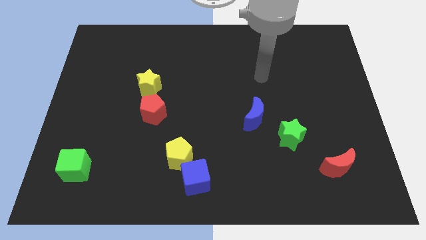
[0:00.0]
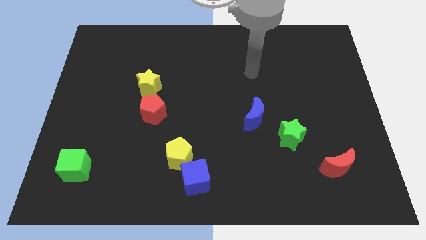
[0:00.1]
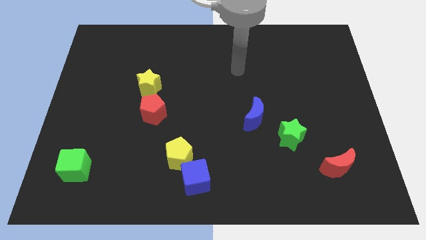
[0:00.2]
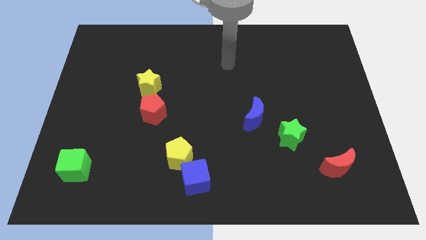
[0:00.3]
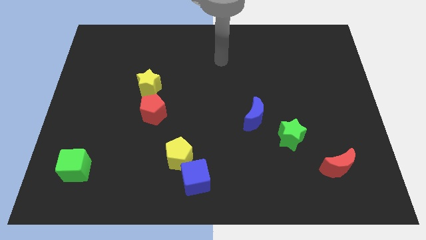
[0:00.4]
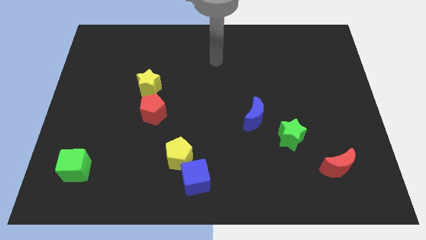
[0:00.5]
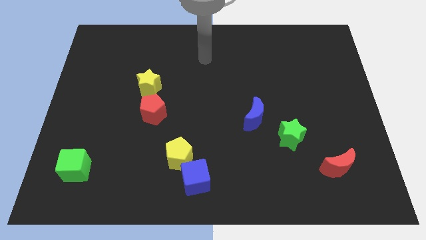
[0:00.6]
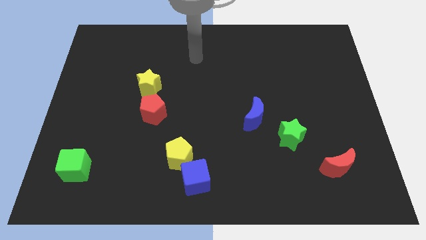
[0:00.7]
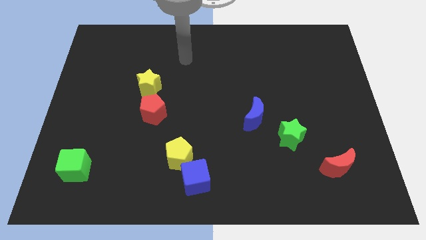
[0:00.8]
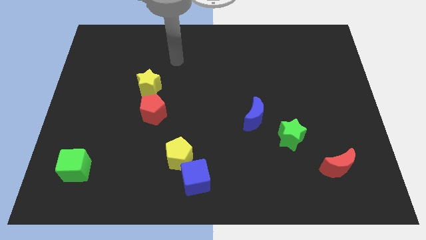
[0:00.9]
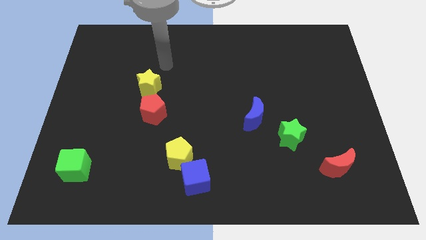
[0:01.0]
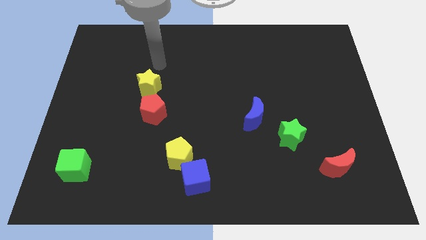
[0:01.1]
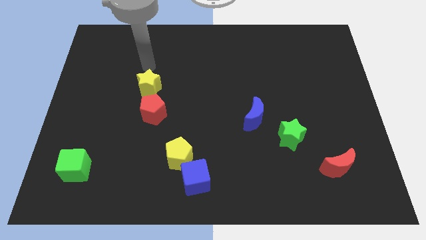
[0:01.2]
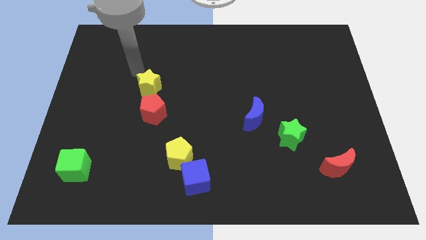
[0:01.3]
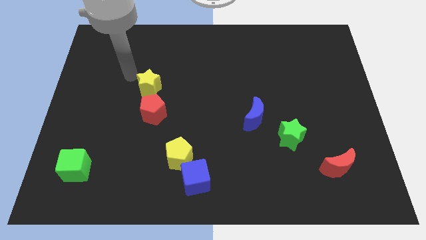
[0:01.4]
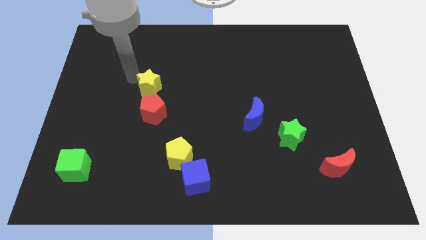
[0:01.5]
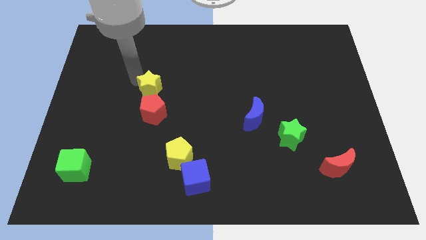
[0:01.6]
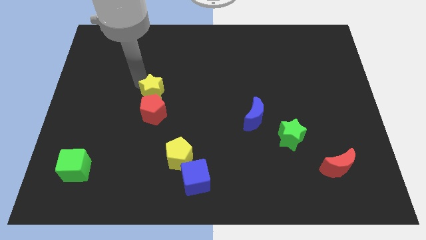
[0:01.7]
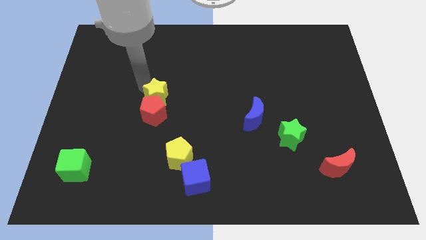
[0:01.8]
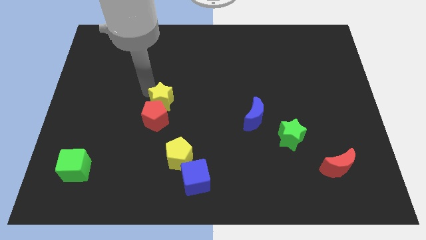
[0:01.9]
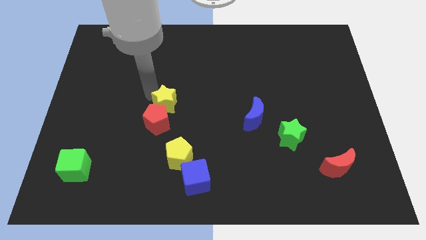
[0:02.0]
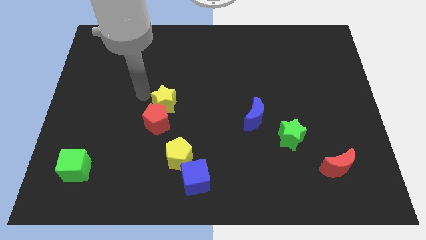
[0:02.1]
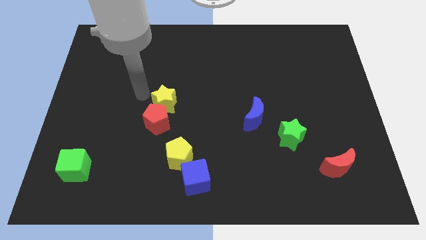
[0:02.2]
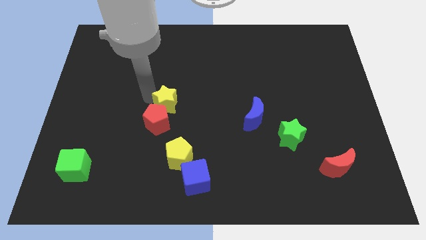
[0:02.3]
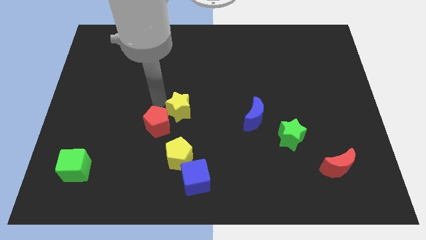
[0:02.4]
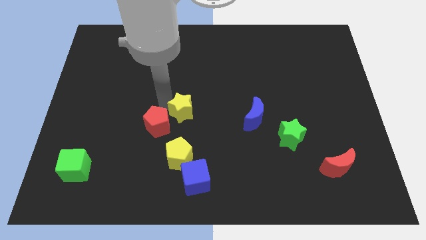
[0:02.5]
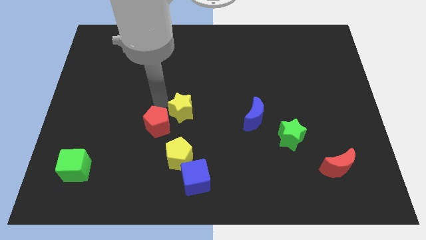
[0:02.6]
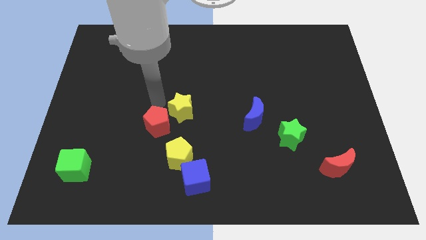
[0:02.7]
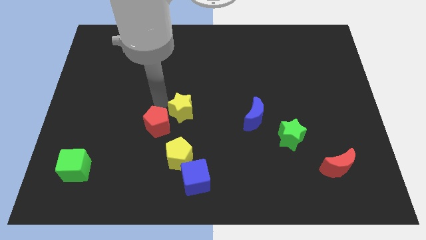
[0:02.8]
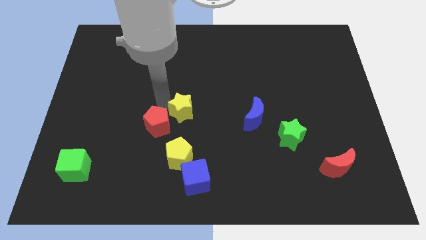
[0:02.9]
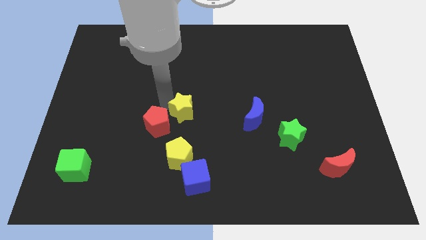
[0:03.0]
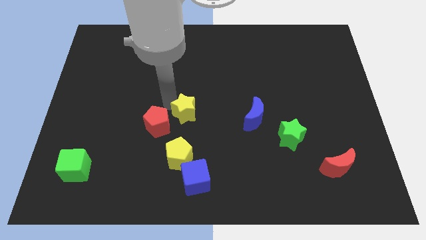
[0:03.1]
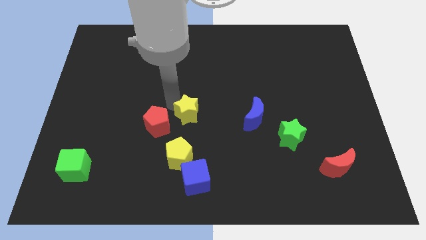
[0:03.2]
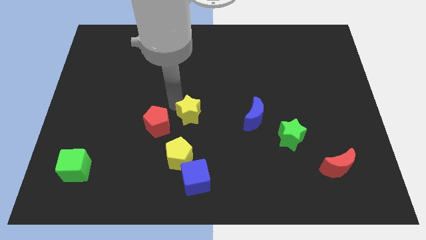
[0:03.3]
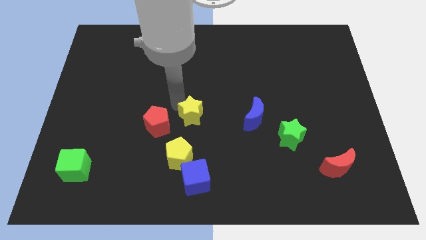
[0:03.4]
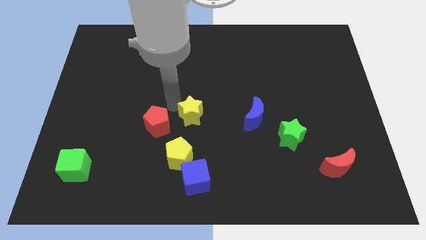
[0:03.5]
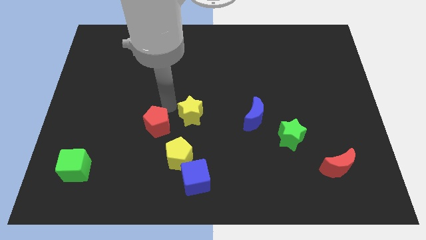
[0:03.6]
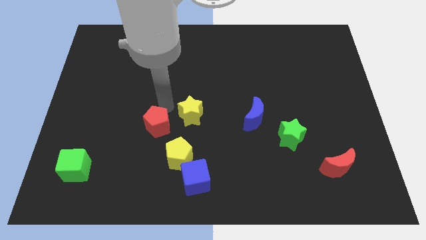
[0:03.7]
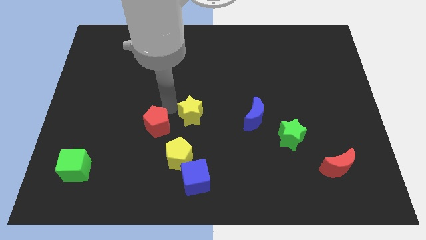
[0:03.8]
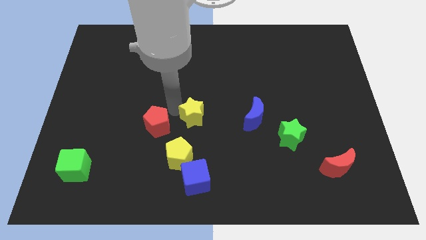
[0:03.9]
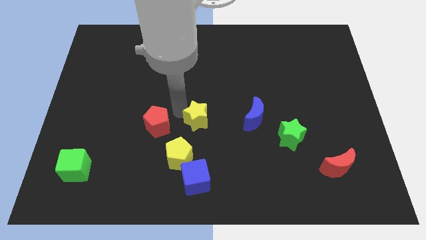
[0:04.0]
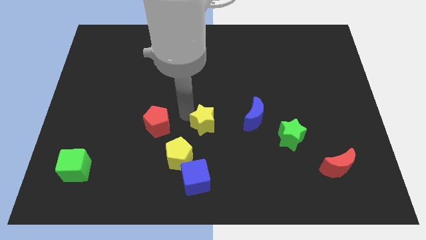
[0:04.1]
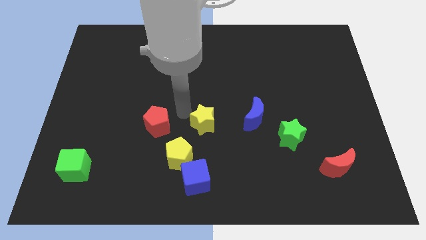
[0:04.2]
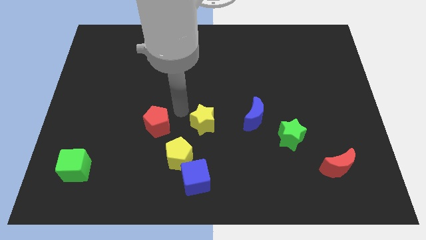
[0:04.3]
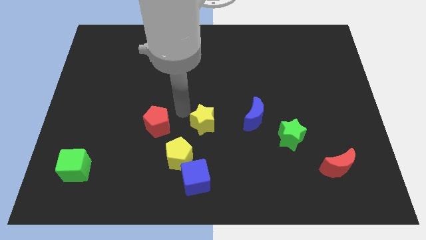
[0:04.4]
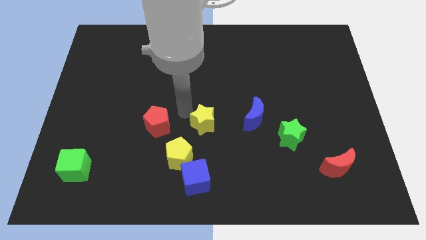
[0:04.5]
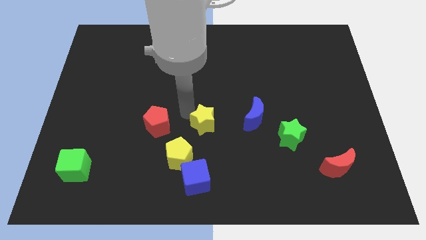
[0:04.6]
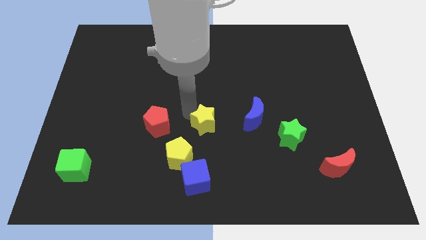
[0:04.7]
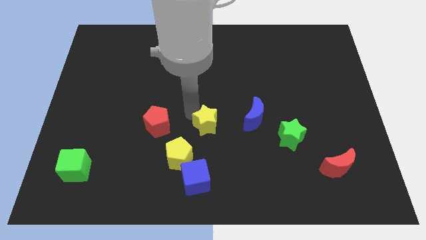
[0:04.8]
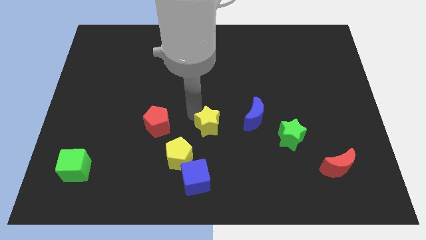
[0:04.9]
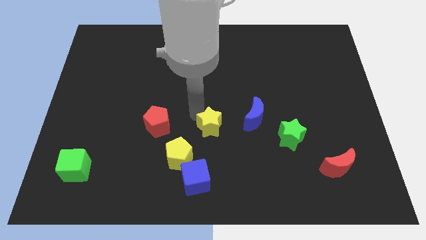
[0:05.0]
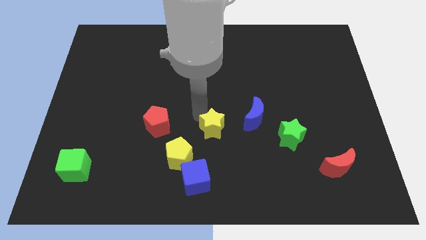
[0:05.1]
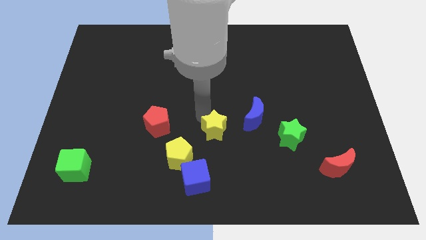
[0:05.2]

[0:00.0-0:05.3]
push the yellow star diagonally downwards and to the right

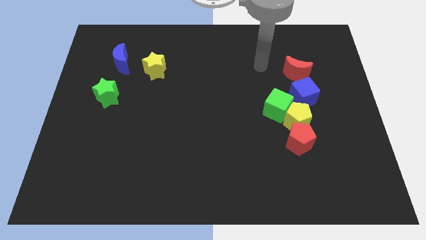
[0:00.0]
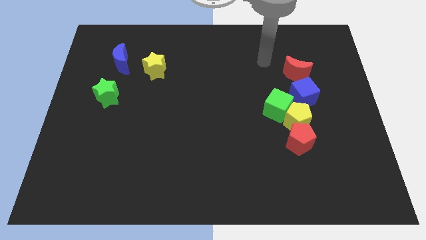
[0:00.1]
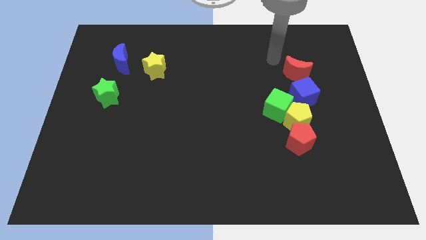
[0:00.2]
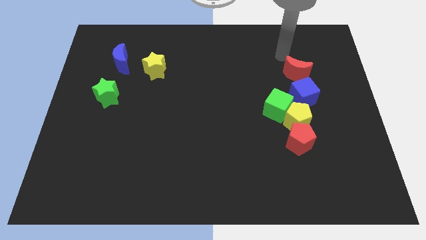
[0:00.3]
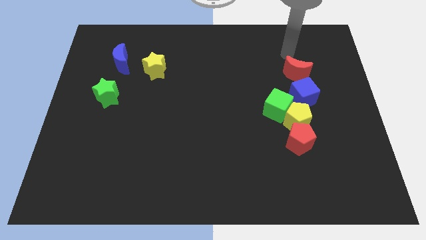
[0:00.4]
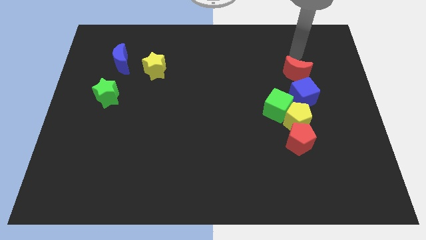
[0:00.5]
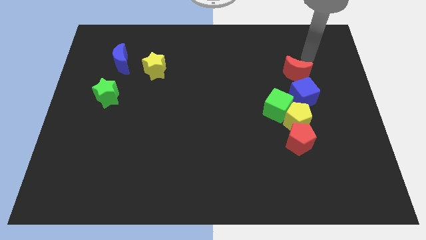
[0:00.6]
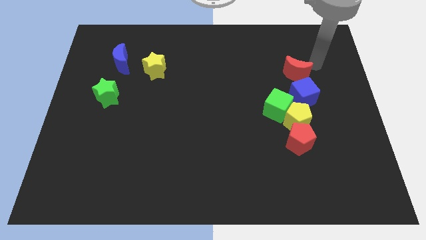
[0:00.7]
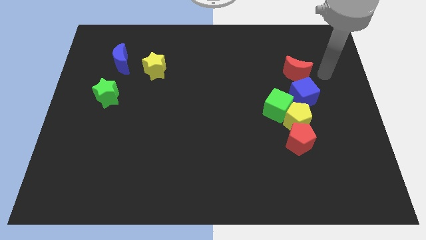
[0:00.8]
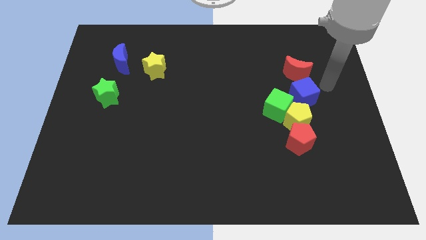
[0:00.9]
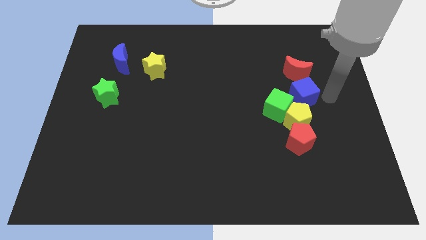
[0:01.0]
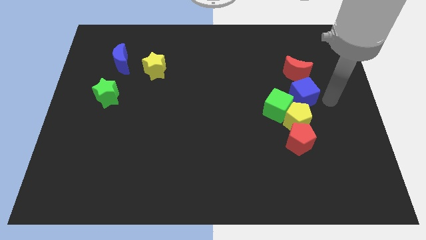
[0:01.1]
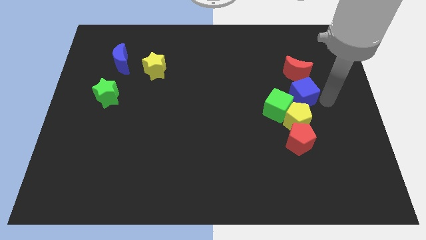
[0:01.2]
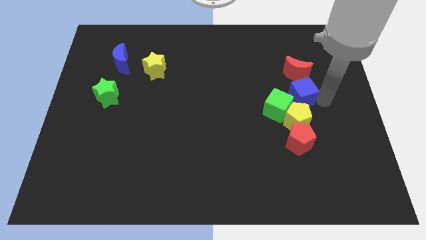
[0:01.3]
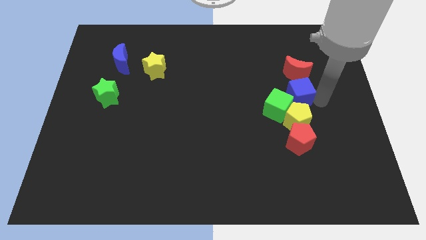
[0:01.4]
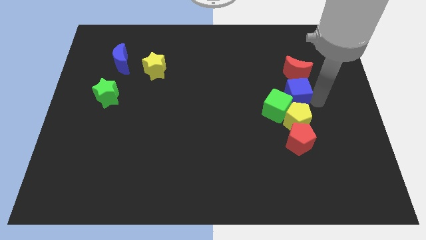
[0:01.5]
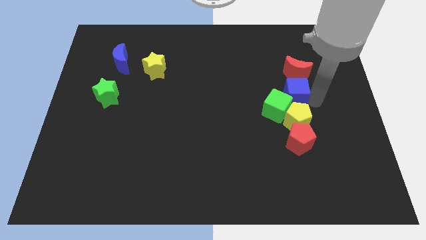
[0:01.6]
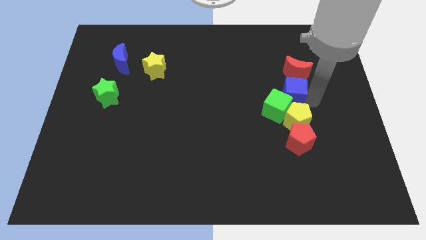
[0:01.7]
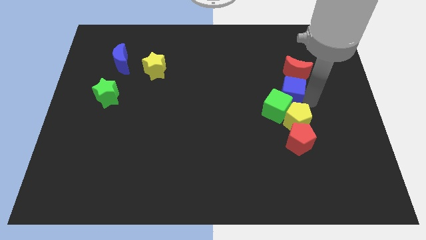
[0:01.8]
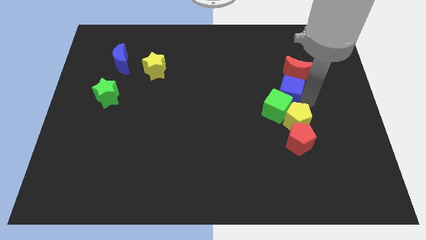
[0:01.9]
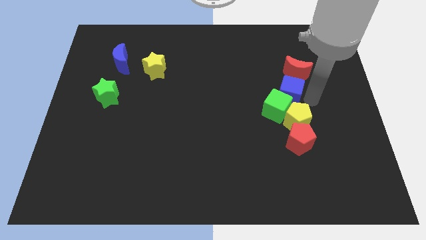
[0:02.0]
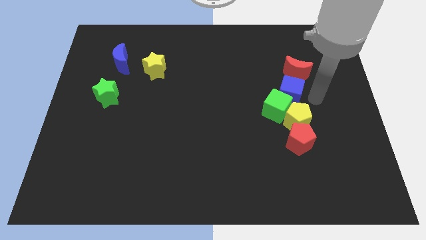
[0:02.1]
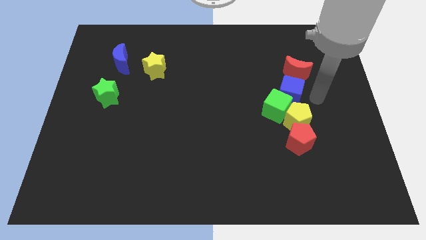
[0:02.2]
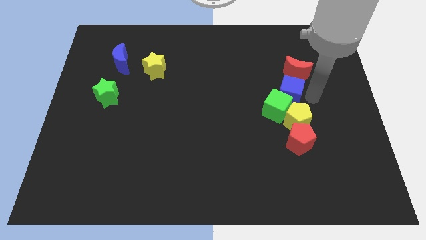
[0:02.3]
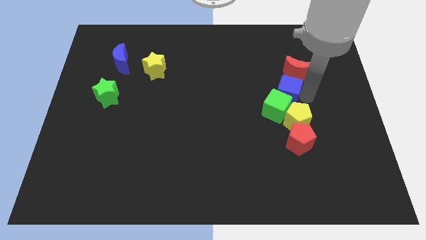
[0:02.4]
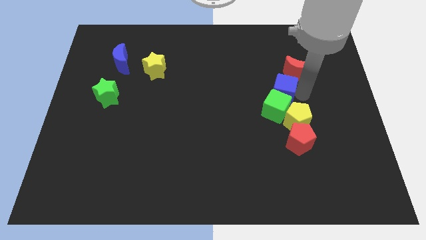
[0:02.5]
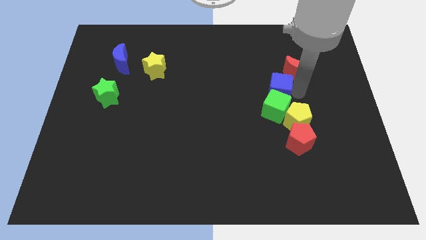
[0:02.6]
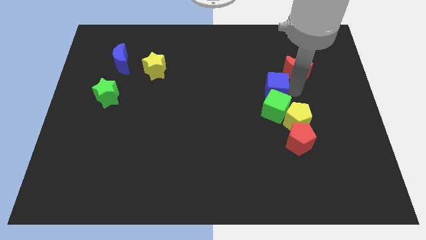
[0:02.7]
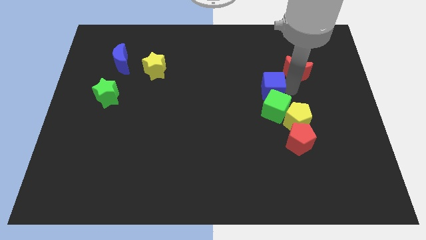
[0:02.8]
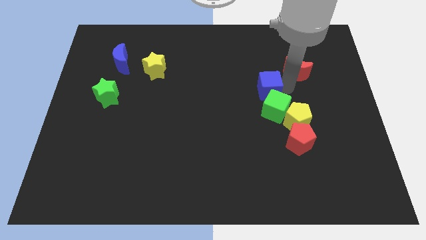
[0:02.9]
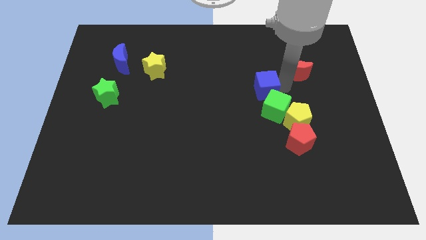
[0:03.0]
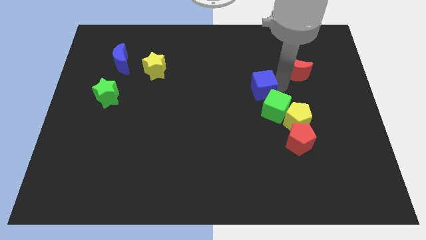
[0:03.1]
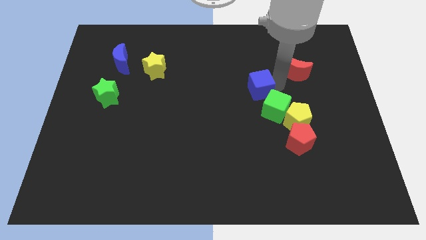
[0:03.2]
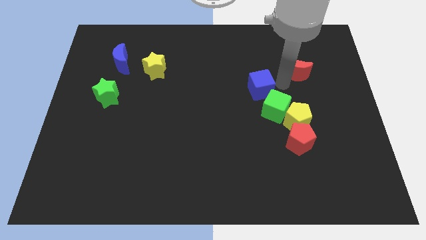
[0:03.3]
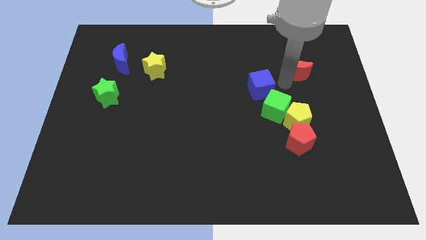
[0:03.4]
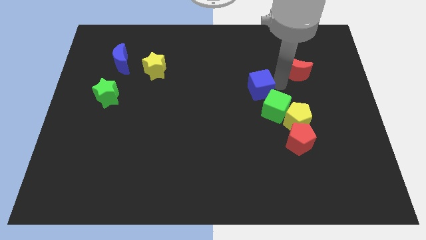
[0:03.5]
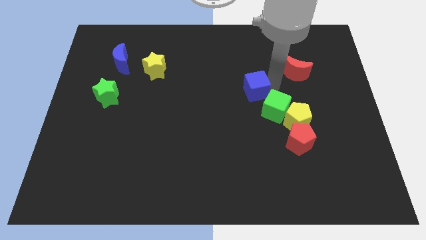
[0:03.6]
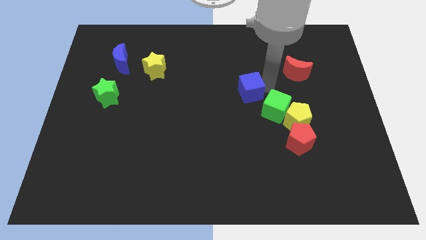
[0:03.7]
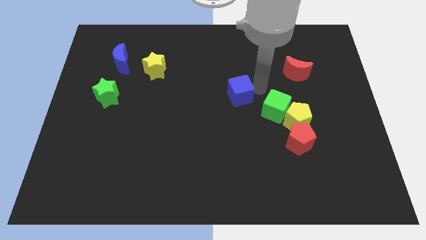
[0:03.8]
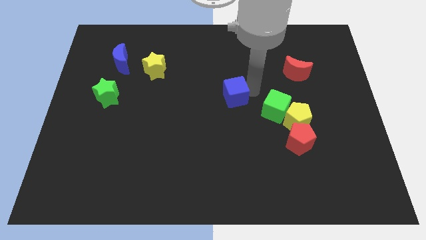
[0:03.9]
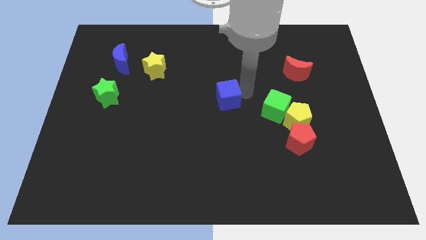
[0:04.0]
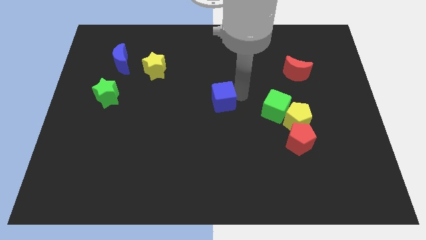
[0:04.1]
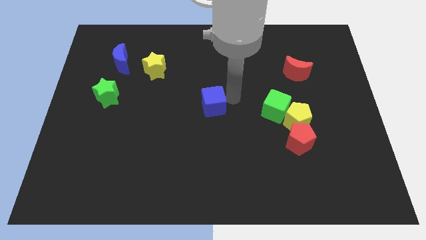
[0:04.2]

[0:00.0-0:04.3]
move the blue cube left
